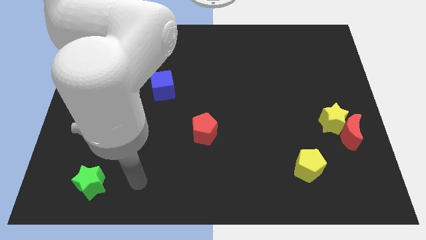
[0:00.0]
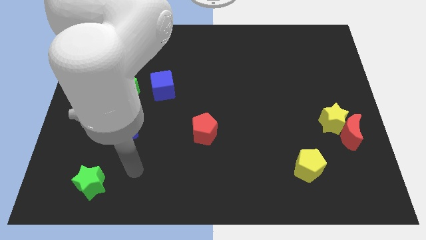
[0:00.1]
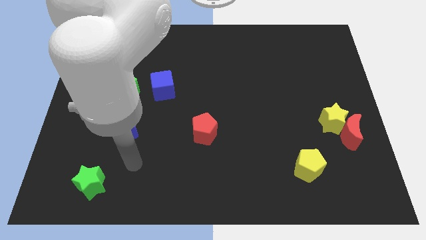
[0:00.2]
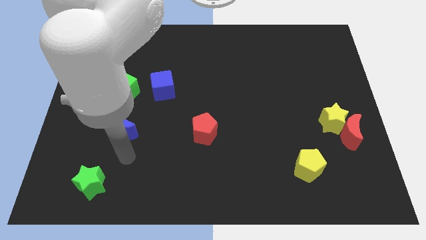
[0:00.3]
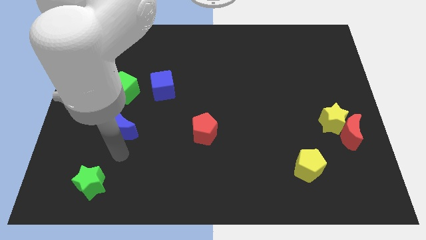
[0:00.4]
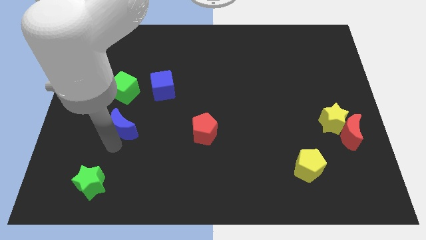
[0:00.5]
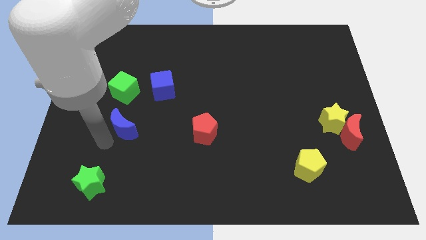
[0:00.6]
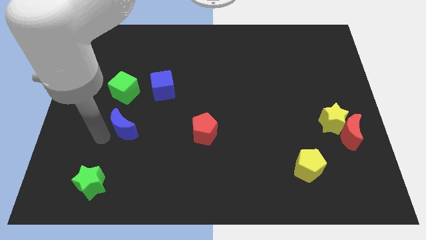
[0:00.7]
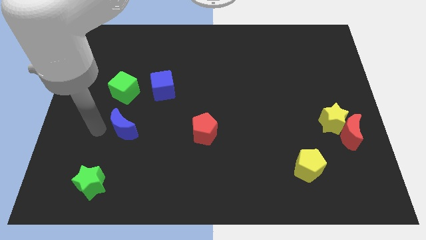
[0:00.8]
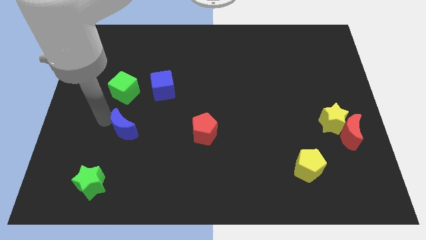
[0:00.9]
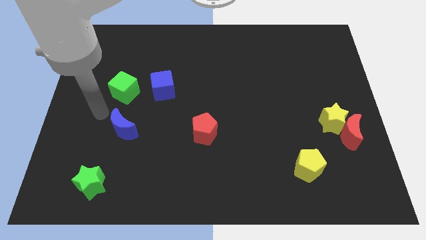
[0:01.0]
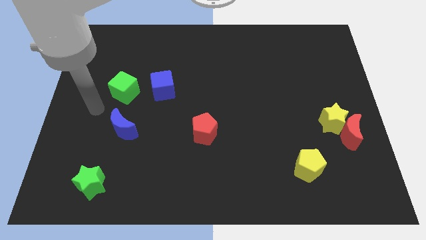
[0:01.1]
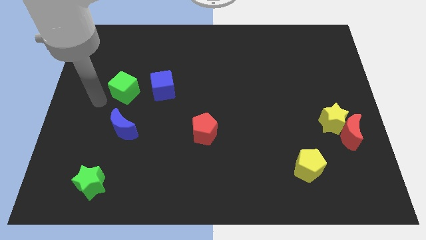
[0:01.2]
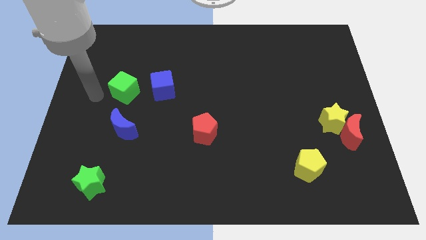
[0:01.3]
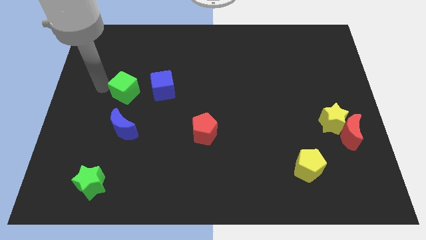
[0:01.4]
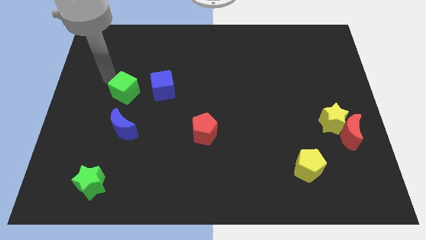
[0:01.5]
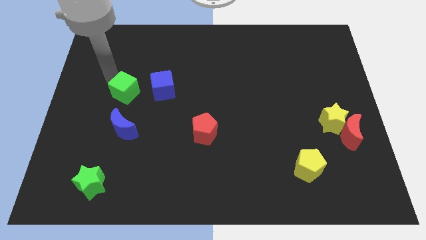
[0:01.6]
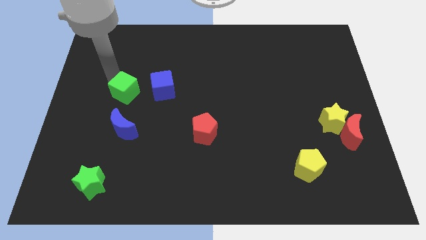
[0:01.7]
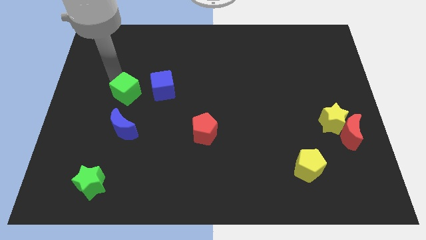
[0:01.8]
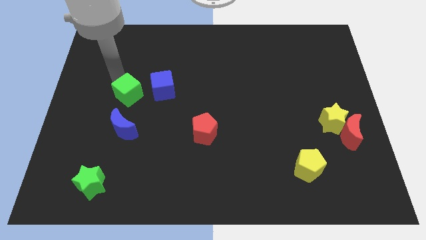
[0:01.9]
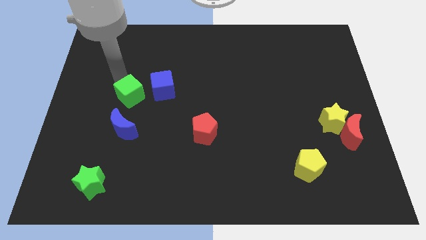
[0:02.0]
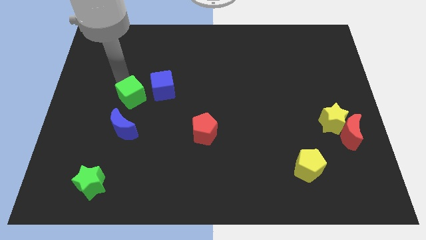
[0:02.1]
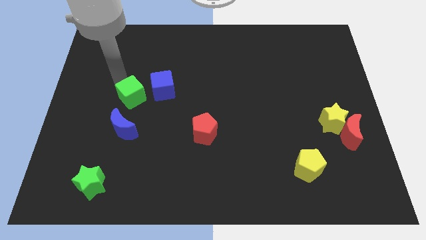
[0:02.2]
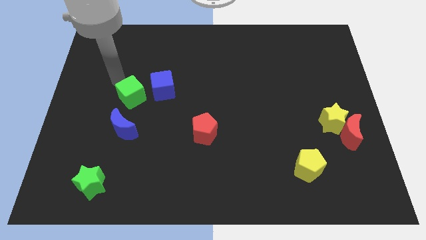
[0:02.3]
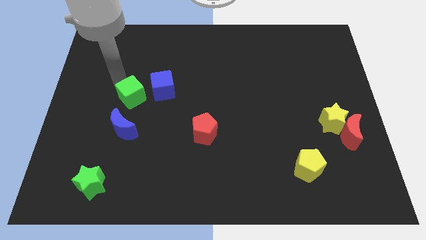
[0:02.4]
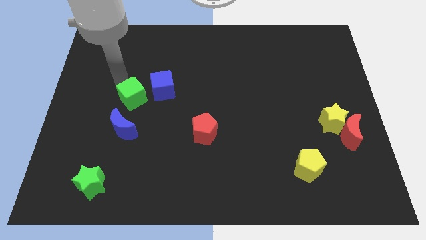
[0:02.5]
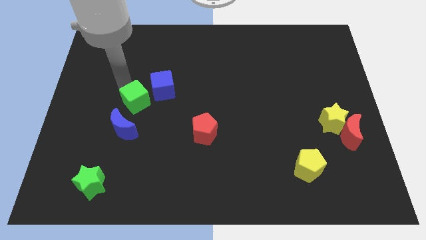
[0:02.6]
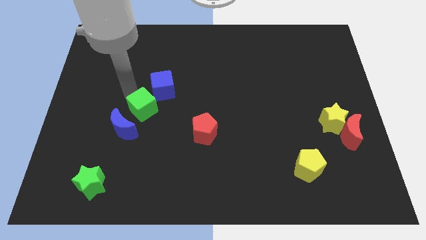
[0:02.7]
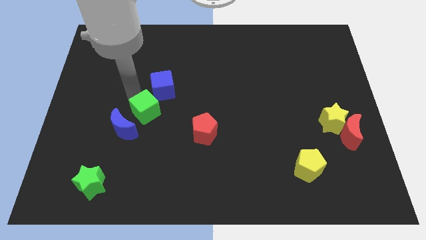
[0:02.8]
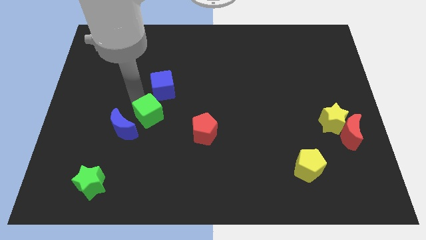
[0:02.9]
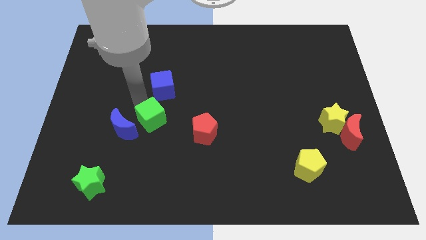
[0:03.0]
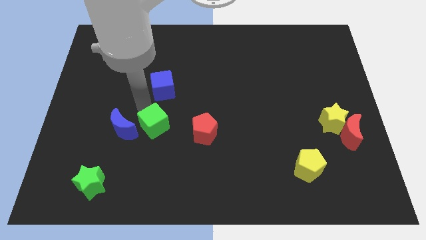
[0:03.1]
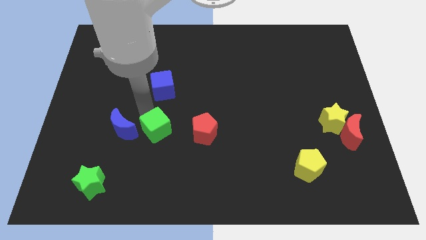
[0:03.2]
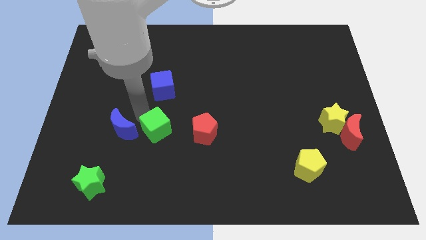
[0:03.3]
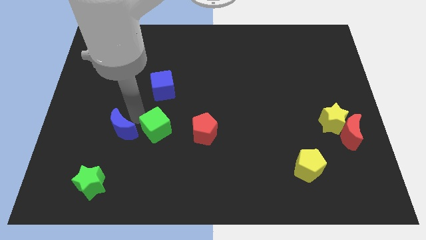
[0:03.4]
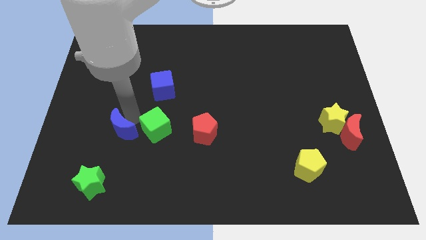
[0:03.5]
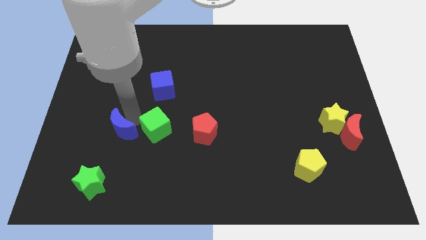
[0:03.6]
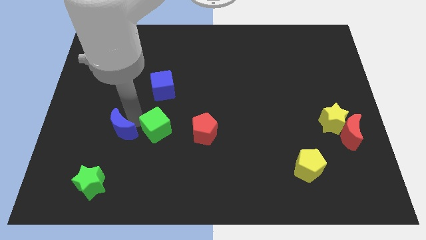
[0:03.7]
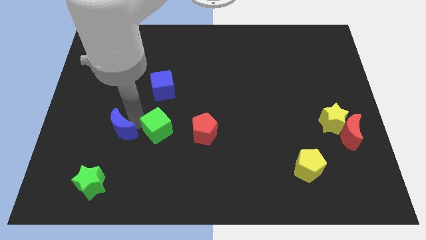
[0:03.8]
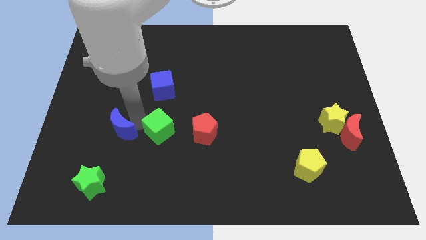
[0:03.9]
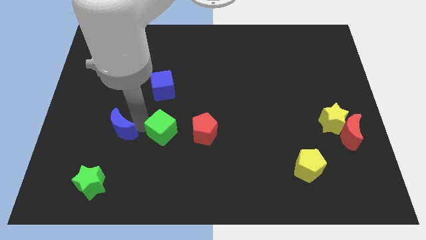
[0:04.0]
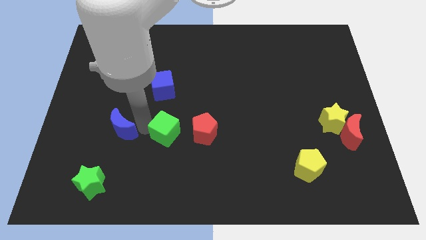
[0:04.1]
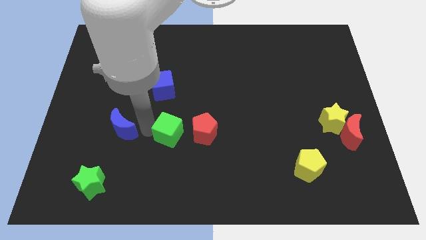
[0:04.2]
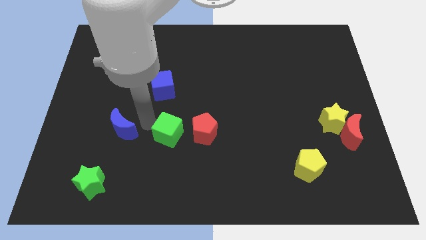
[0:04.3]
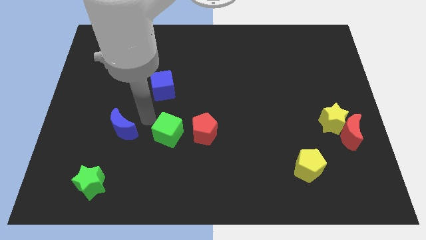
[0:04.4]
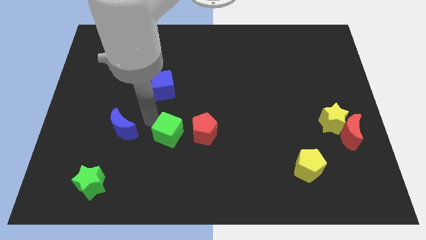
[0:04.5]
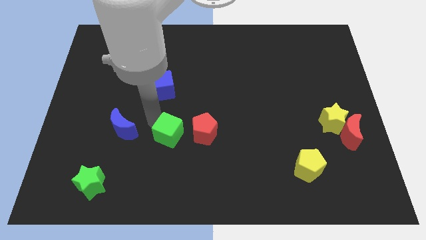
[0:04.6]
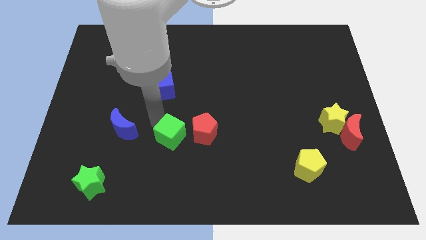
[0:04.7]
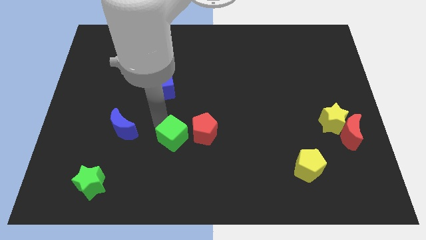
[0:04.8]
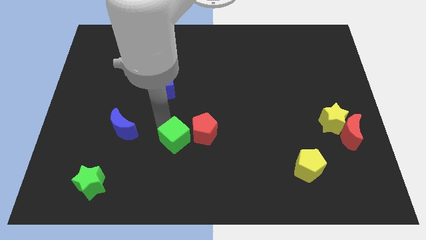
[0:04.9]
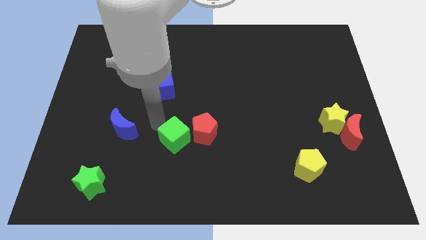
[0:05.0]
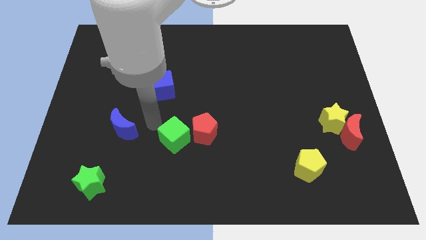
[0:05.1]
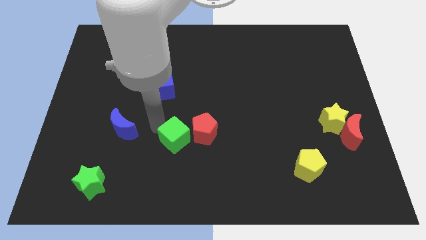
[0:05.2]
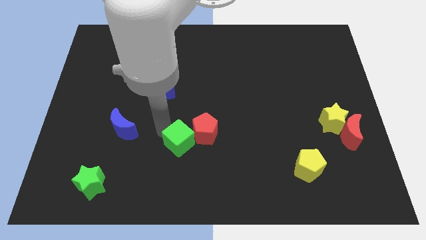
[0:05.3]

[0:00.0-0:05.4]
push the green cube downwards and right diagonally

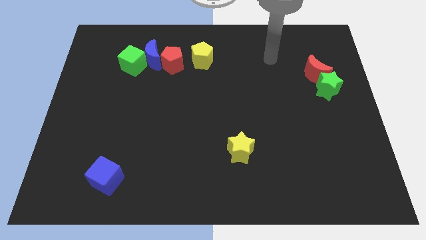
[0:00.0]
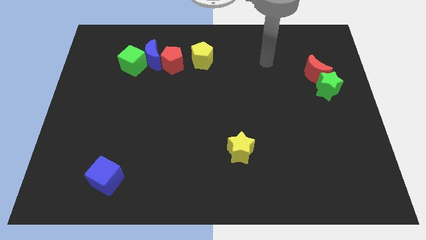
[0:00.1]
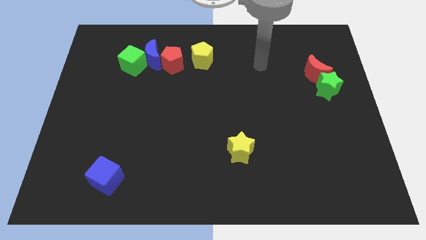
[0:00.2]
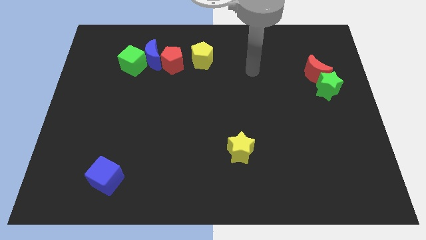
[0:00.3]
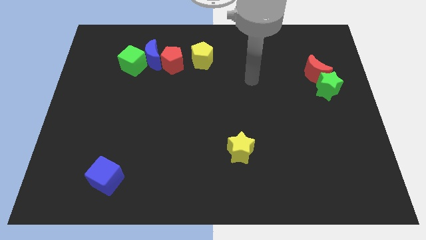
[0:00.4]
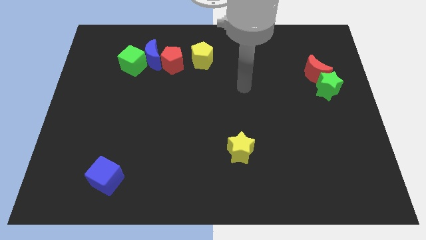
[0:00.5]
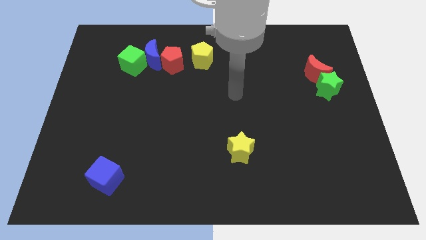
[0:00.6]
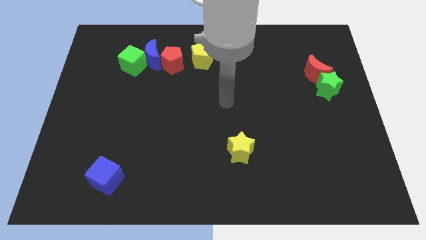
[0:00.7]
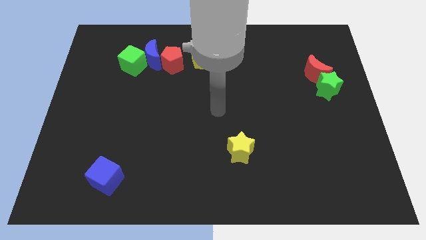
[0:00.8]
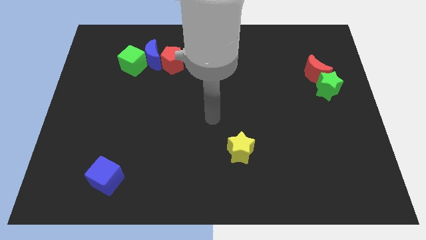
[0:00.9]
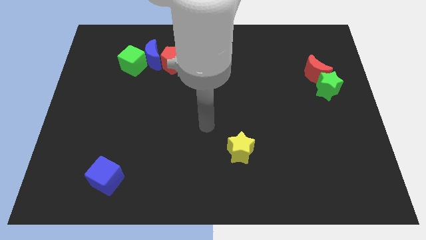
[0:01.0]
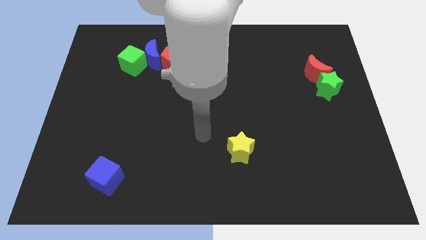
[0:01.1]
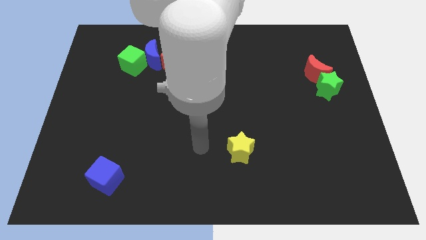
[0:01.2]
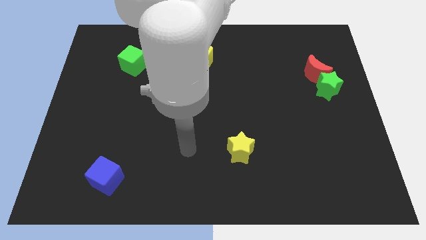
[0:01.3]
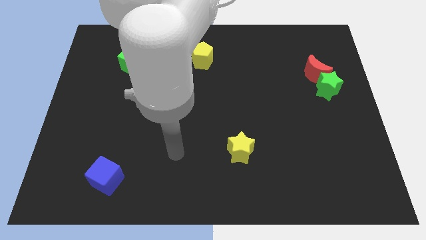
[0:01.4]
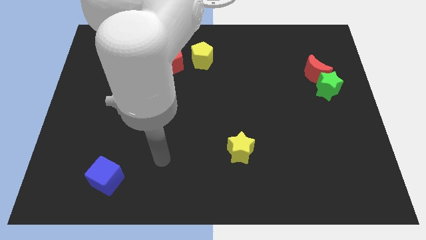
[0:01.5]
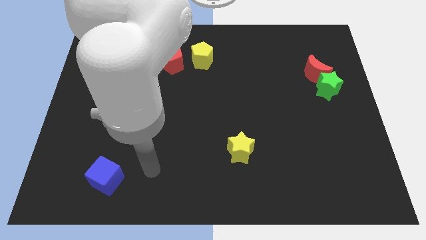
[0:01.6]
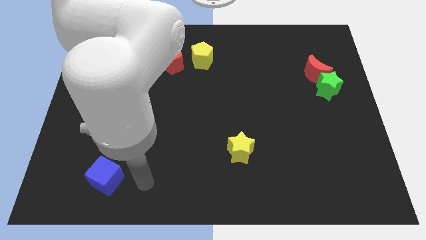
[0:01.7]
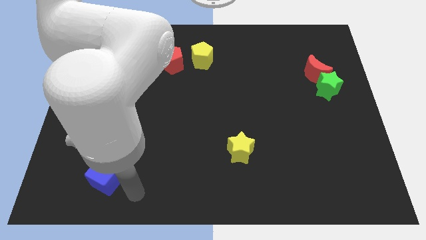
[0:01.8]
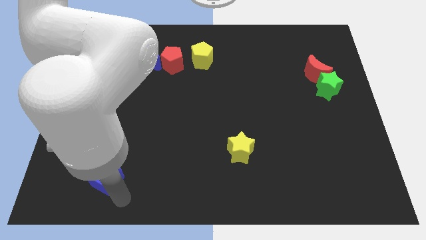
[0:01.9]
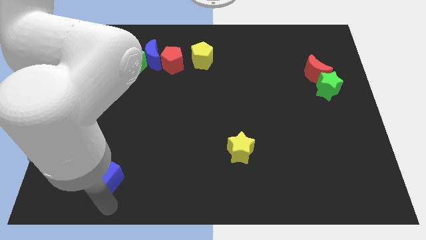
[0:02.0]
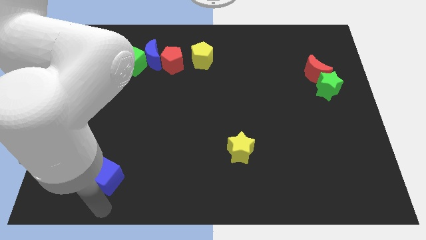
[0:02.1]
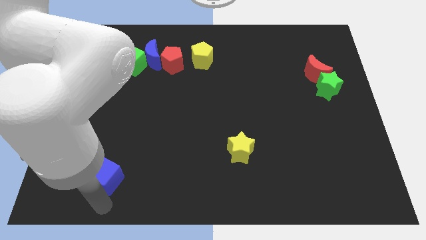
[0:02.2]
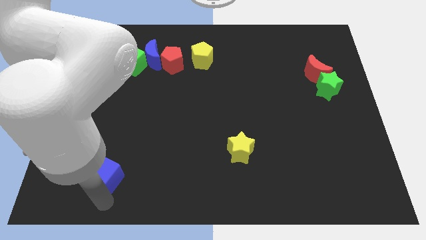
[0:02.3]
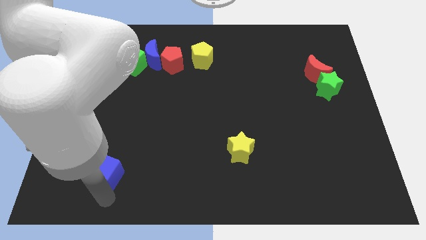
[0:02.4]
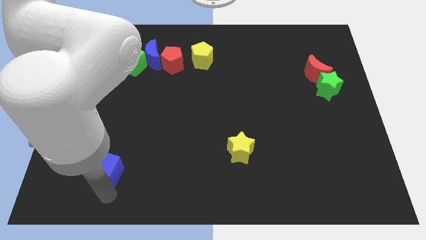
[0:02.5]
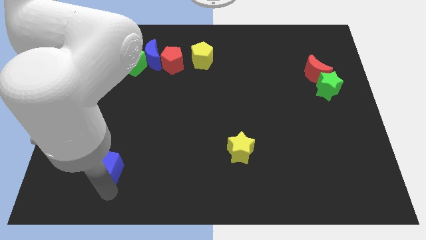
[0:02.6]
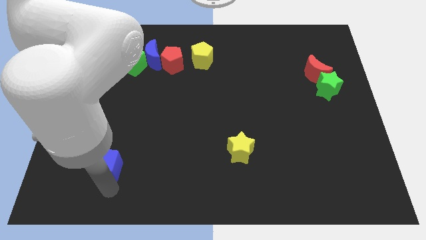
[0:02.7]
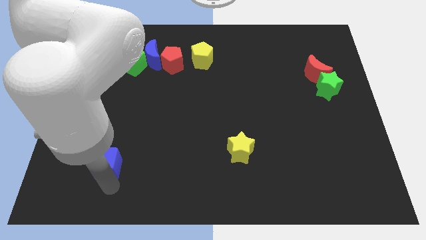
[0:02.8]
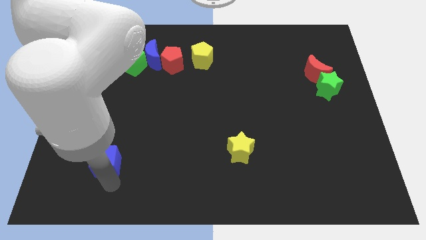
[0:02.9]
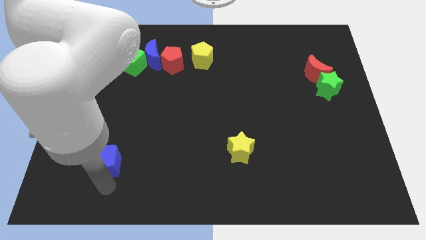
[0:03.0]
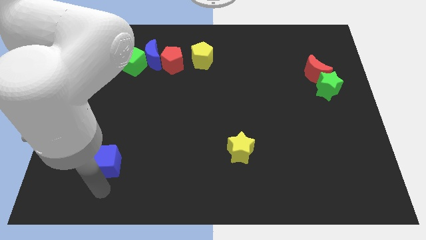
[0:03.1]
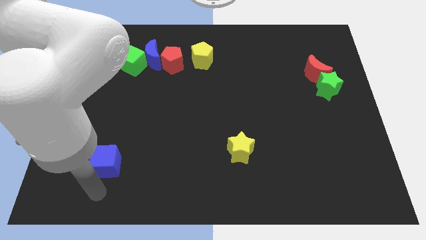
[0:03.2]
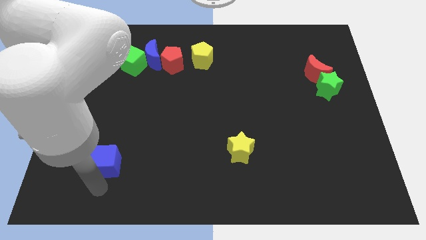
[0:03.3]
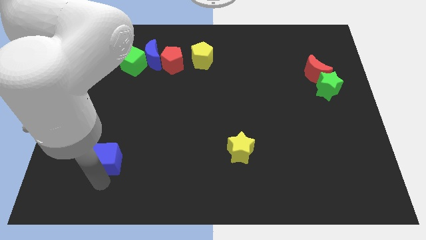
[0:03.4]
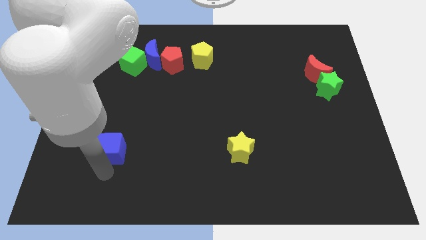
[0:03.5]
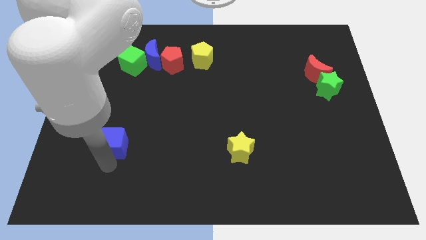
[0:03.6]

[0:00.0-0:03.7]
slightly slide the blue cube up
